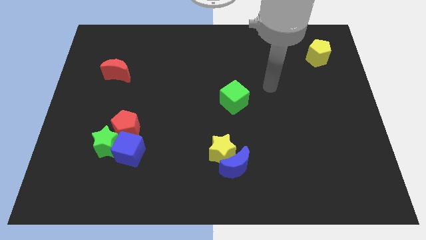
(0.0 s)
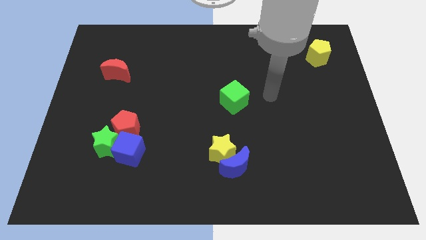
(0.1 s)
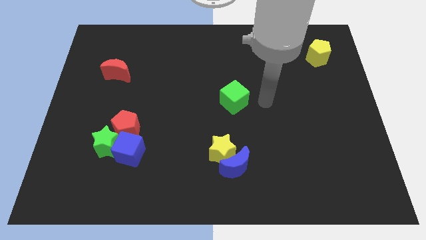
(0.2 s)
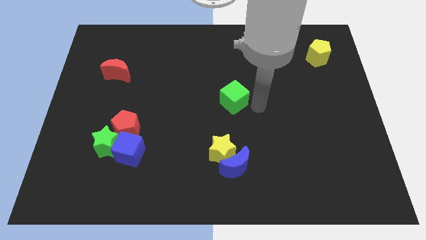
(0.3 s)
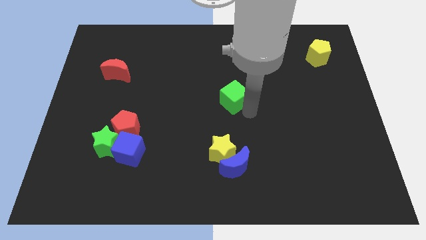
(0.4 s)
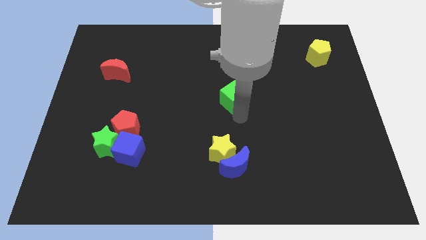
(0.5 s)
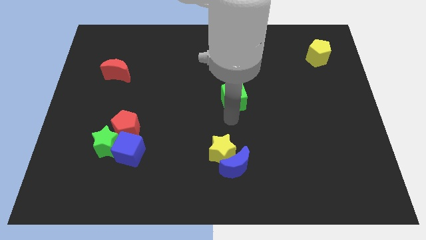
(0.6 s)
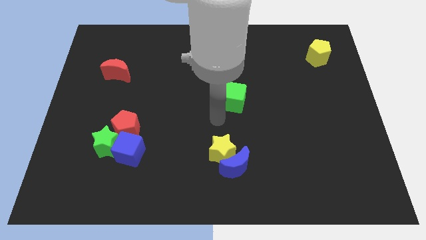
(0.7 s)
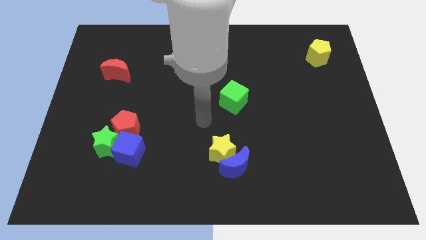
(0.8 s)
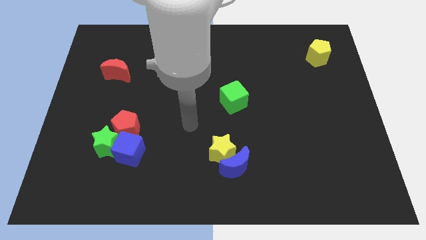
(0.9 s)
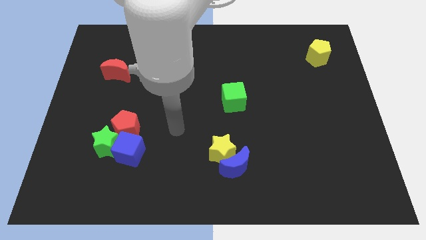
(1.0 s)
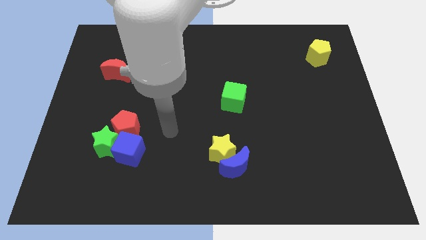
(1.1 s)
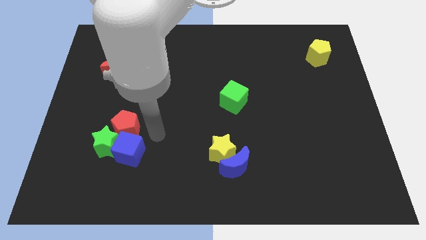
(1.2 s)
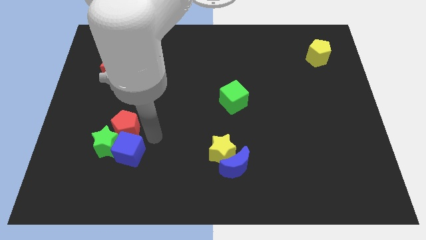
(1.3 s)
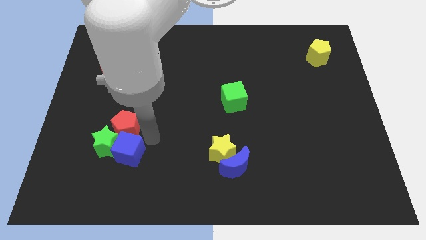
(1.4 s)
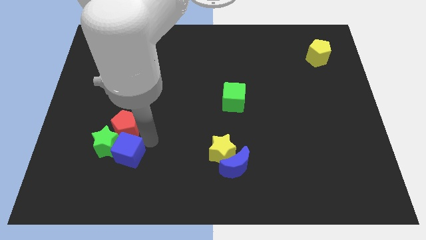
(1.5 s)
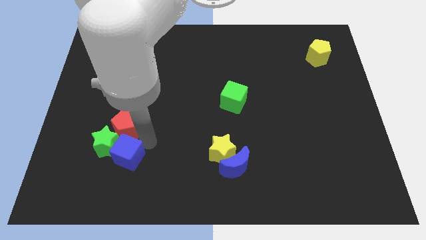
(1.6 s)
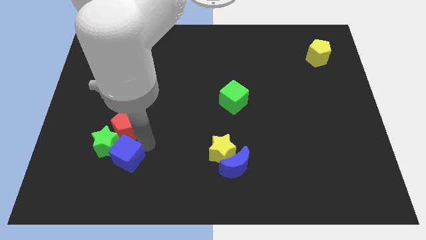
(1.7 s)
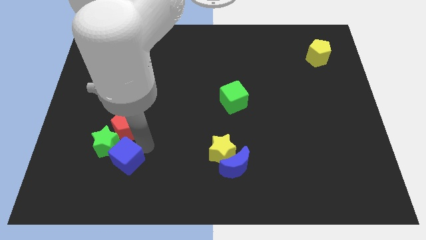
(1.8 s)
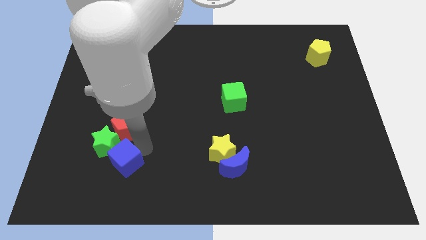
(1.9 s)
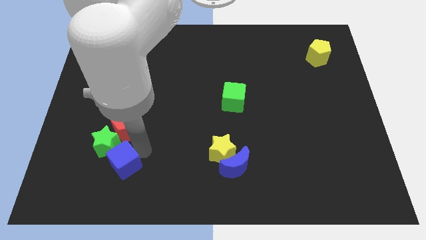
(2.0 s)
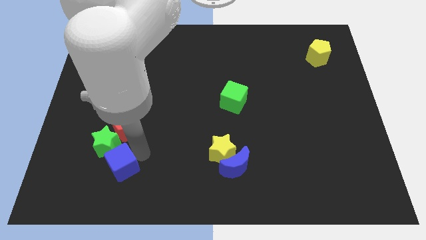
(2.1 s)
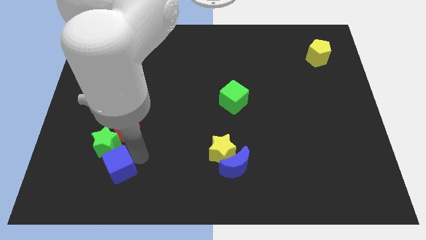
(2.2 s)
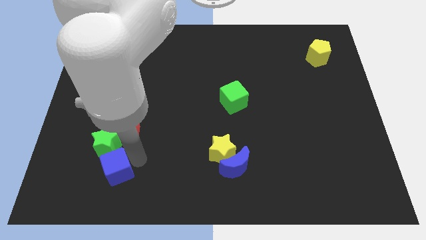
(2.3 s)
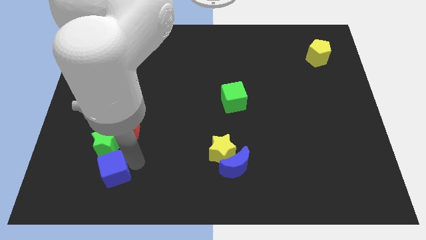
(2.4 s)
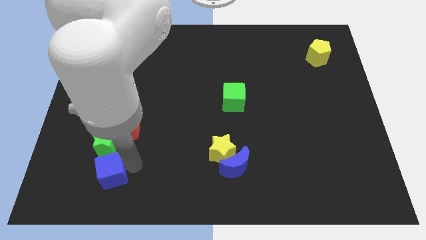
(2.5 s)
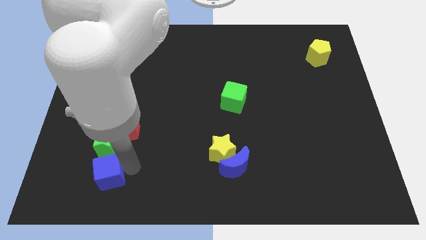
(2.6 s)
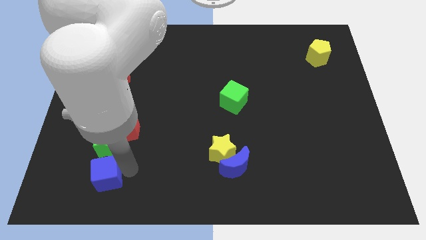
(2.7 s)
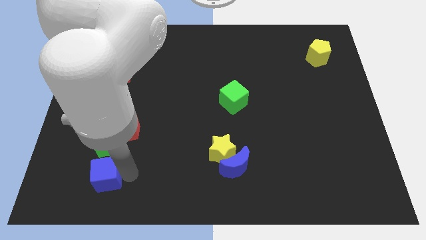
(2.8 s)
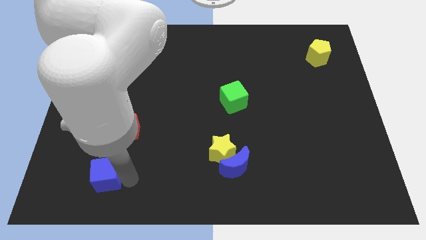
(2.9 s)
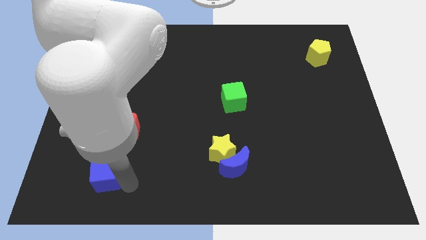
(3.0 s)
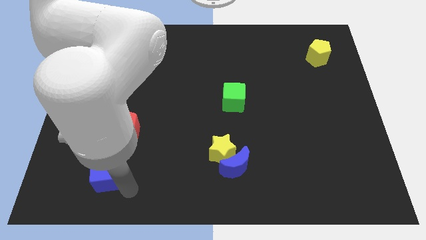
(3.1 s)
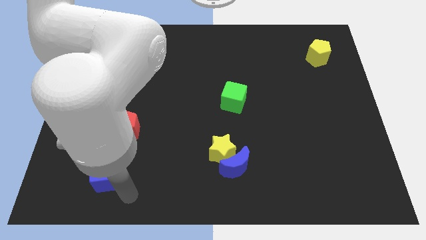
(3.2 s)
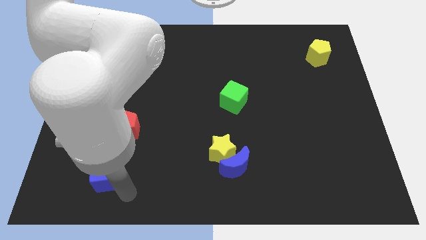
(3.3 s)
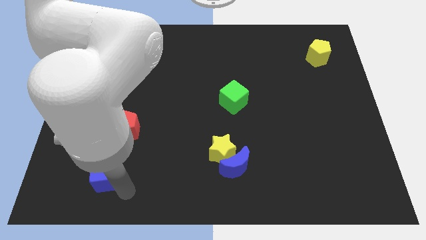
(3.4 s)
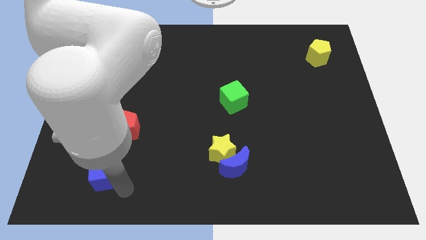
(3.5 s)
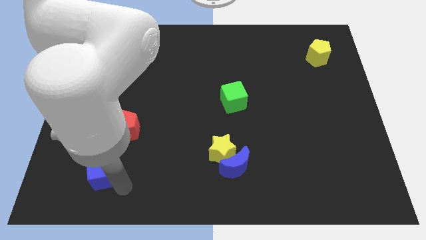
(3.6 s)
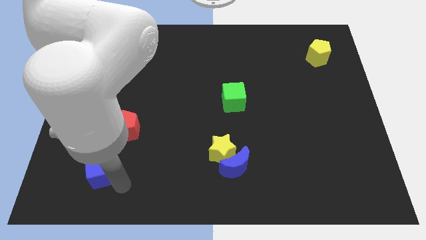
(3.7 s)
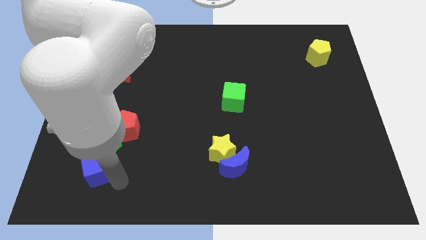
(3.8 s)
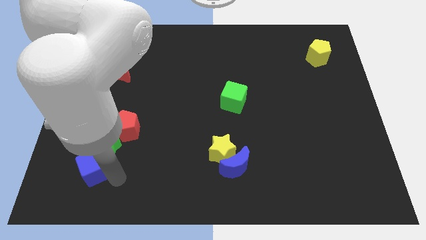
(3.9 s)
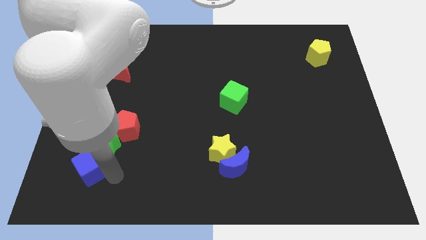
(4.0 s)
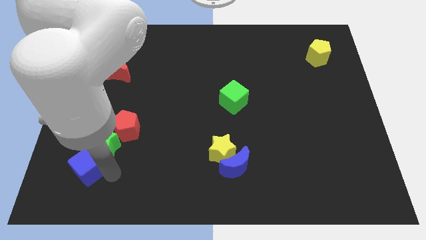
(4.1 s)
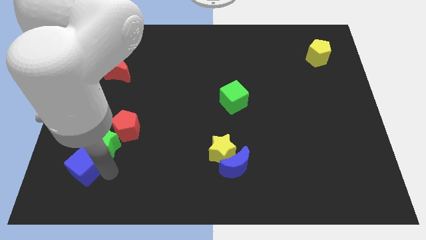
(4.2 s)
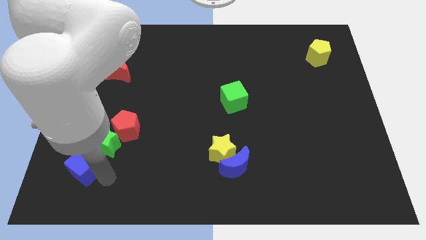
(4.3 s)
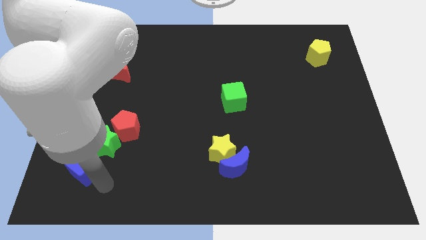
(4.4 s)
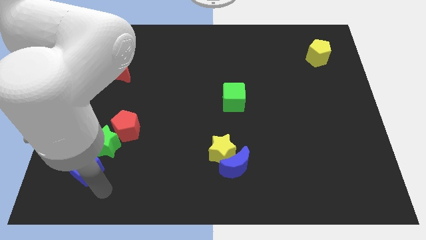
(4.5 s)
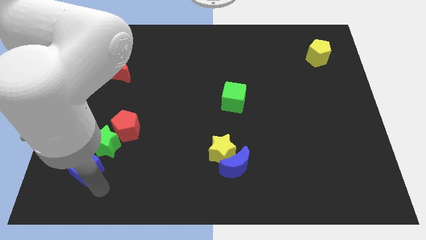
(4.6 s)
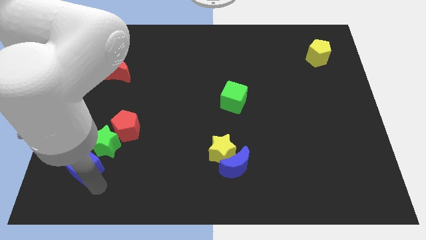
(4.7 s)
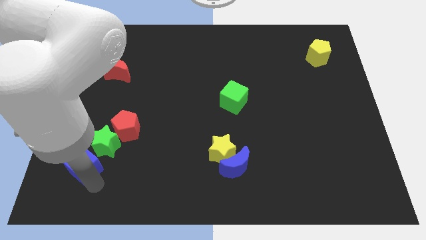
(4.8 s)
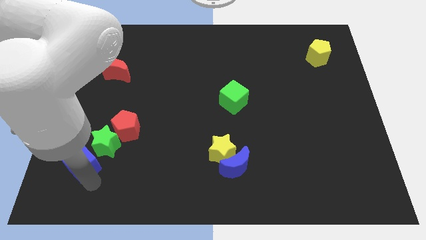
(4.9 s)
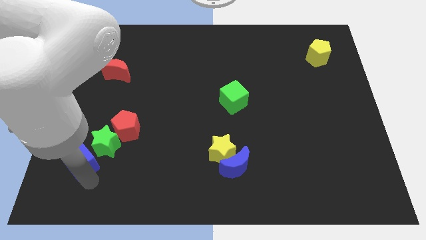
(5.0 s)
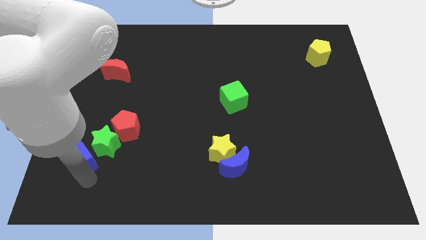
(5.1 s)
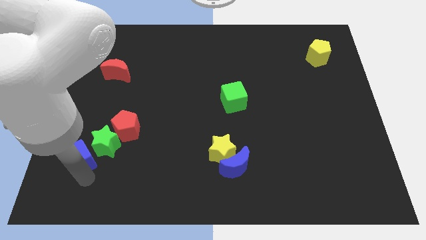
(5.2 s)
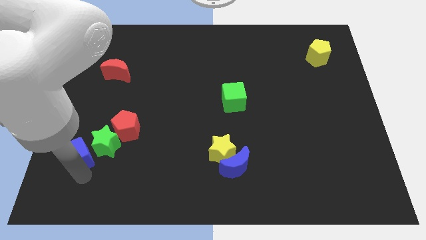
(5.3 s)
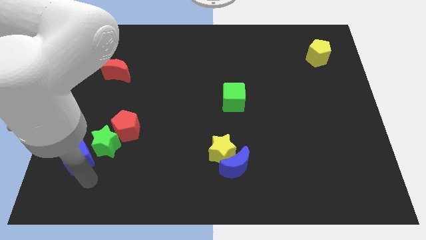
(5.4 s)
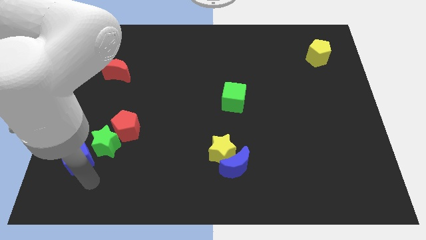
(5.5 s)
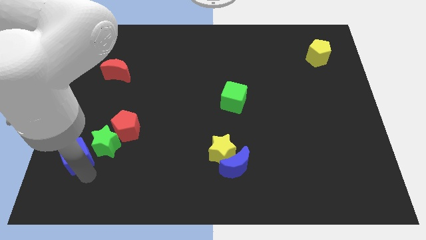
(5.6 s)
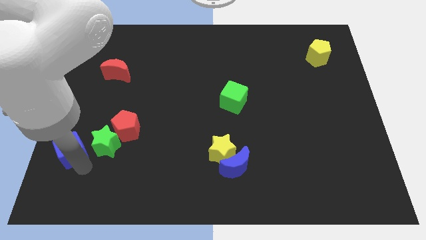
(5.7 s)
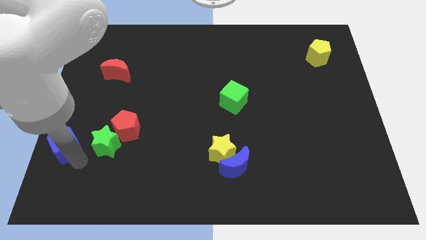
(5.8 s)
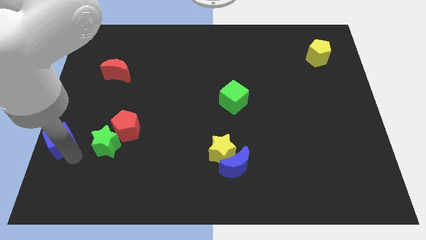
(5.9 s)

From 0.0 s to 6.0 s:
put the blue cube to the left side of the board

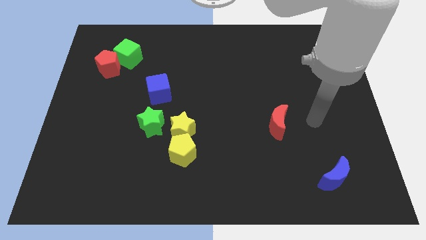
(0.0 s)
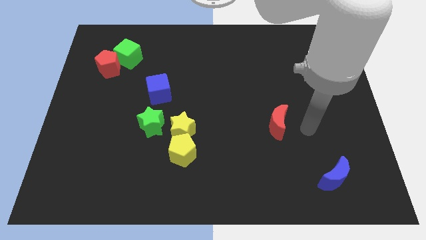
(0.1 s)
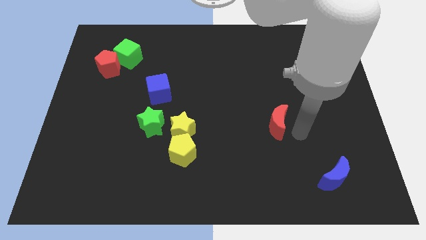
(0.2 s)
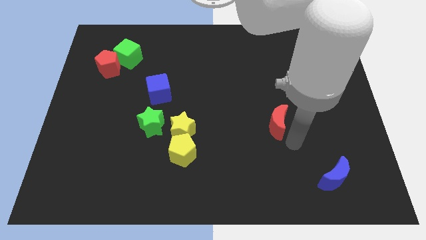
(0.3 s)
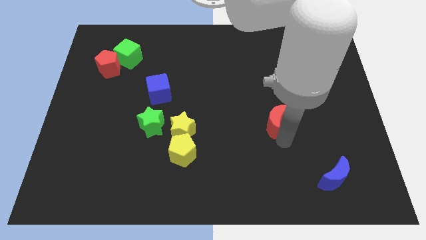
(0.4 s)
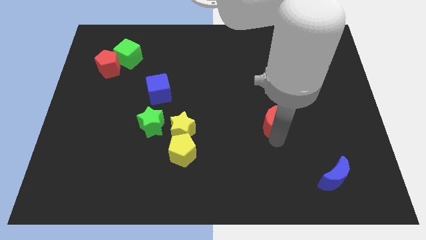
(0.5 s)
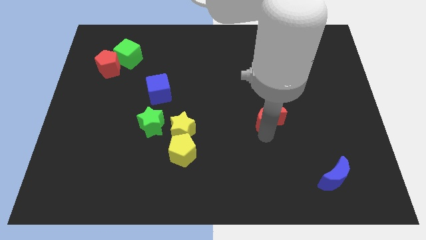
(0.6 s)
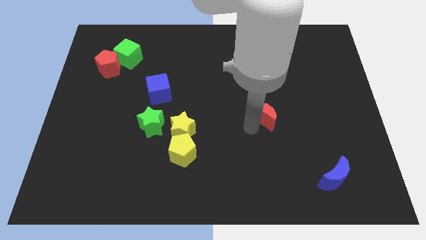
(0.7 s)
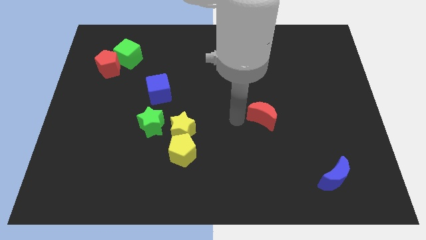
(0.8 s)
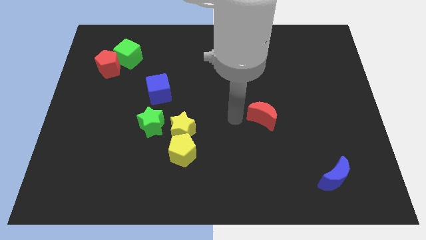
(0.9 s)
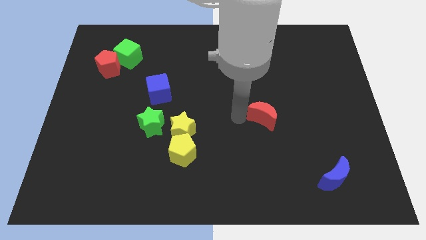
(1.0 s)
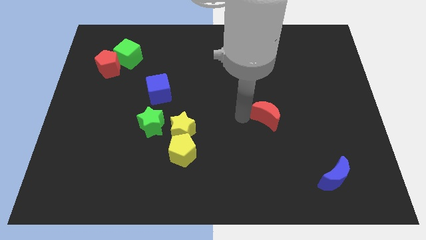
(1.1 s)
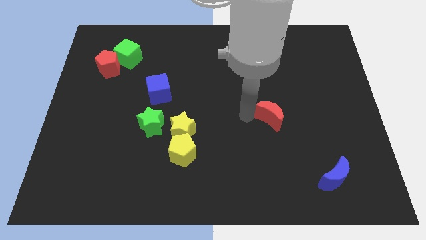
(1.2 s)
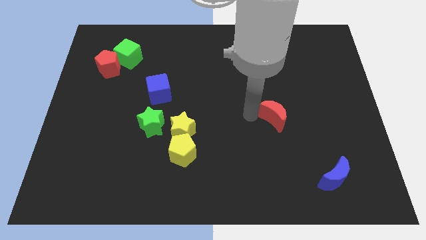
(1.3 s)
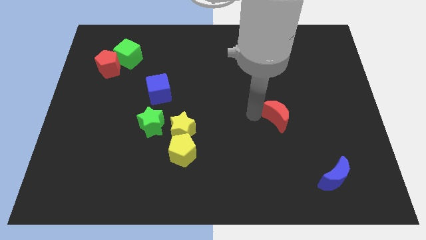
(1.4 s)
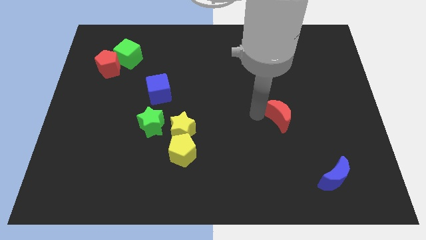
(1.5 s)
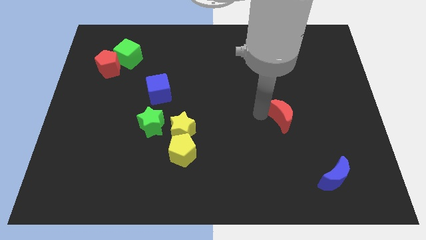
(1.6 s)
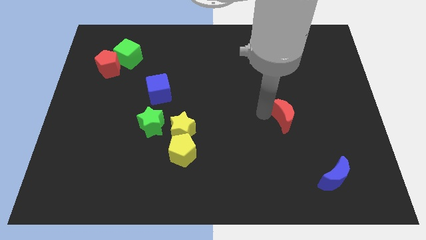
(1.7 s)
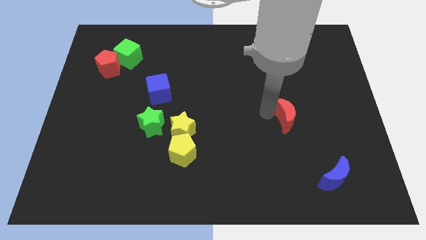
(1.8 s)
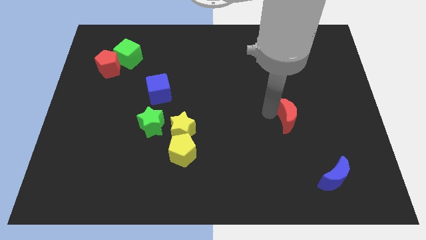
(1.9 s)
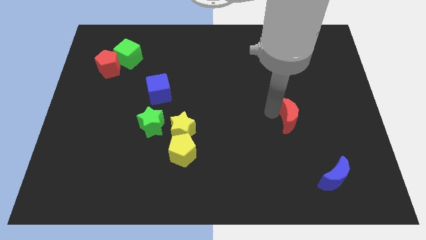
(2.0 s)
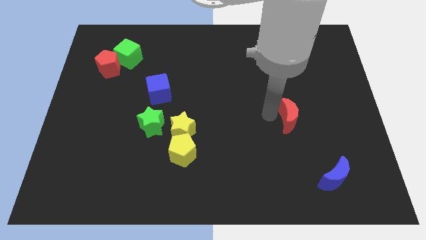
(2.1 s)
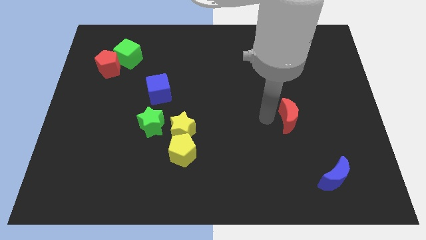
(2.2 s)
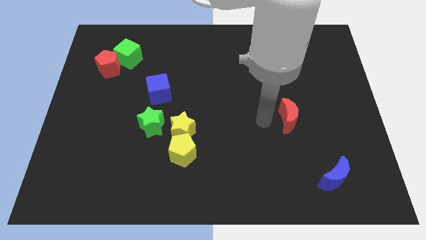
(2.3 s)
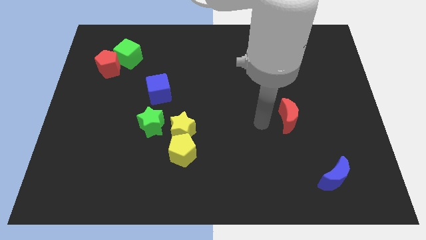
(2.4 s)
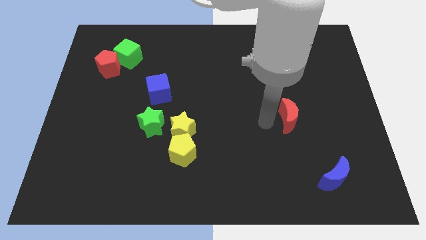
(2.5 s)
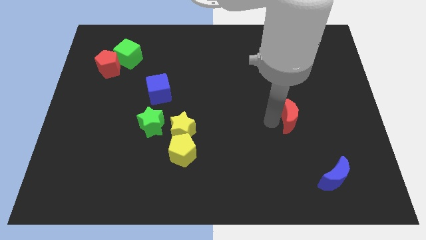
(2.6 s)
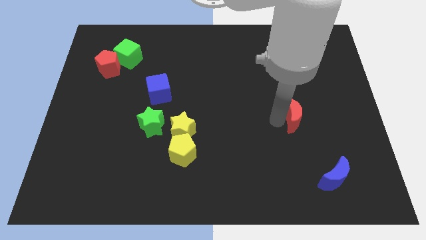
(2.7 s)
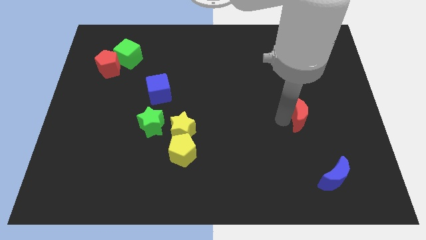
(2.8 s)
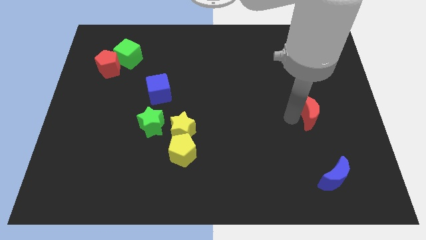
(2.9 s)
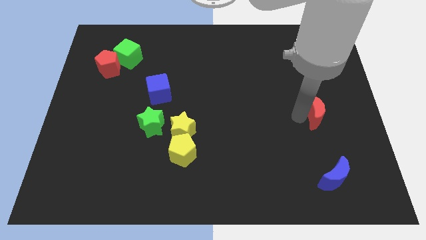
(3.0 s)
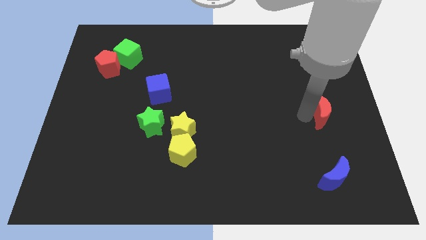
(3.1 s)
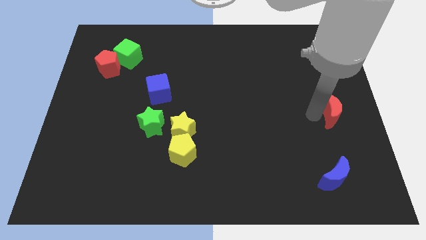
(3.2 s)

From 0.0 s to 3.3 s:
move the red moon to the right side
